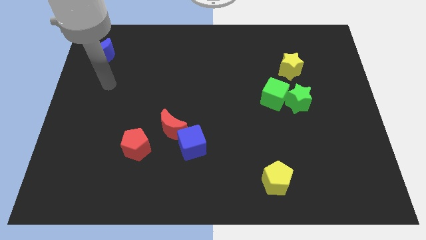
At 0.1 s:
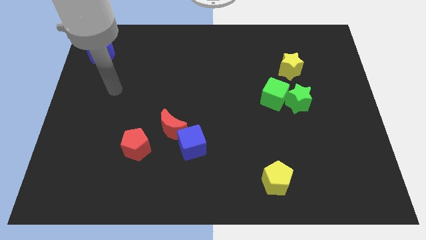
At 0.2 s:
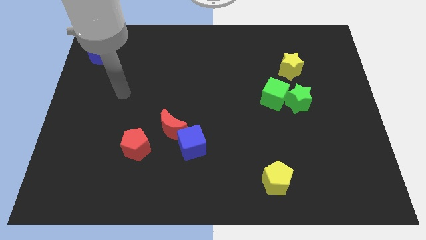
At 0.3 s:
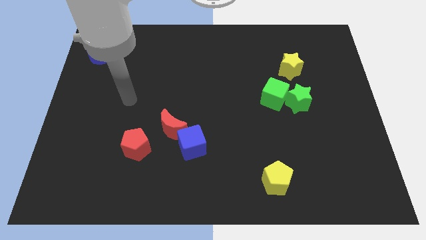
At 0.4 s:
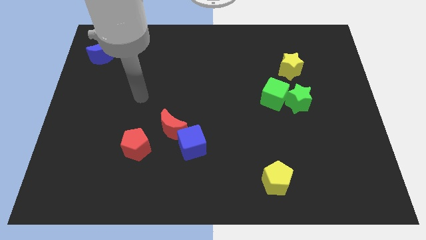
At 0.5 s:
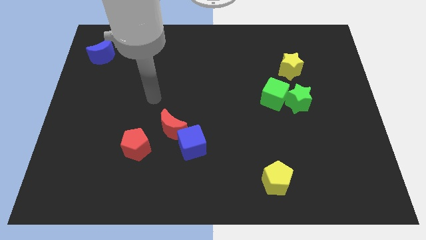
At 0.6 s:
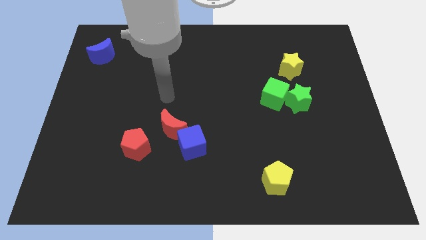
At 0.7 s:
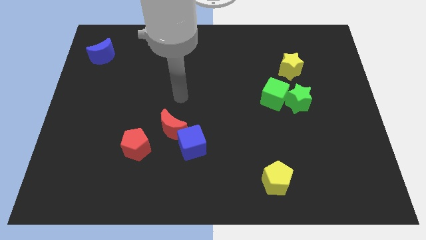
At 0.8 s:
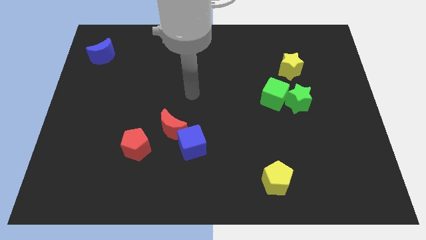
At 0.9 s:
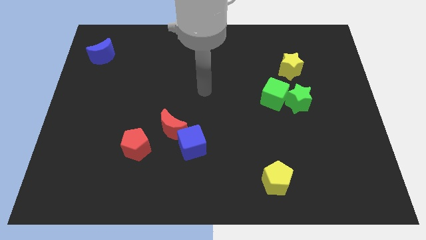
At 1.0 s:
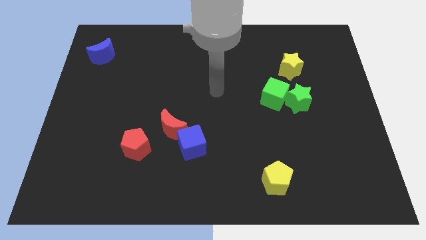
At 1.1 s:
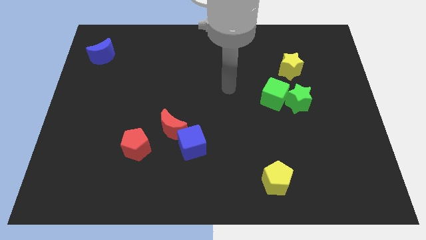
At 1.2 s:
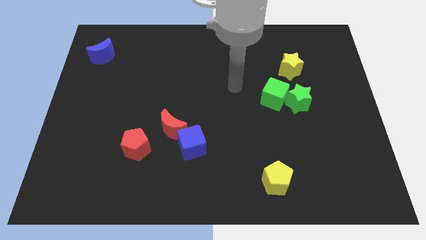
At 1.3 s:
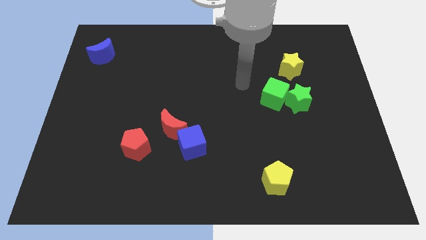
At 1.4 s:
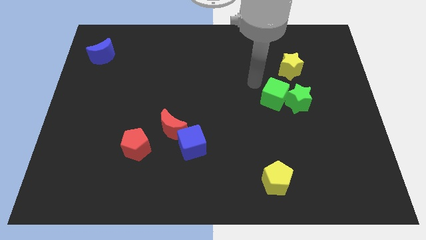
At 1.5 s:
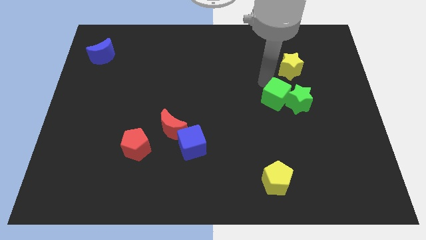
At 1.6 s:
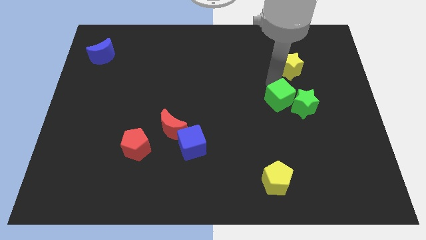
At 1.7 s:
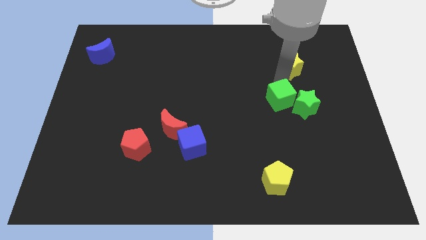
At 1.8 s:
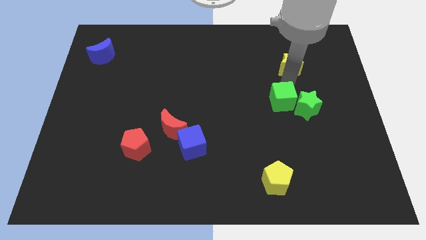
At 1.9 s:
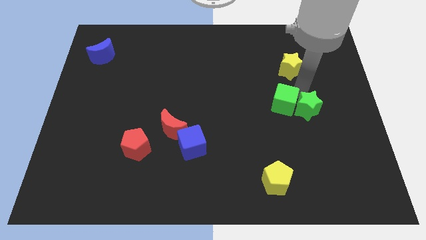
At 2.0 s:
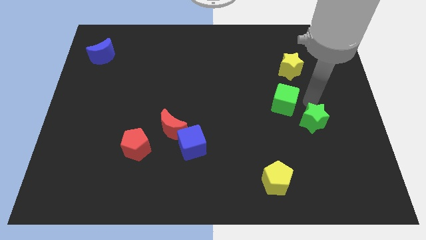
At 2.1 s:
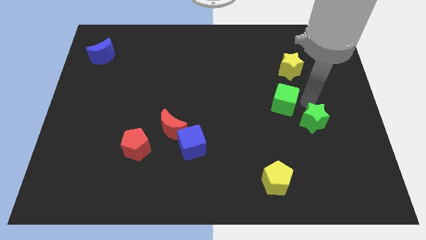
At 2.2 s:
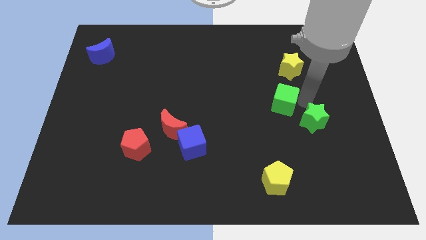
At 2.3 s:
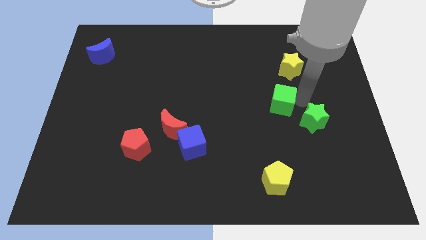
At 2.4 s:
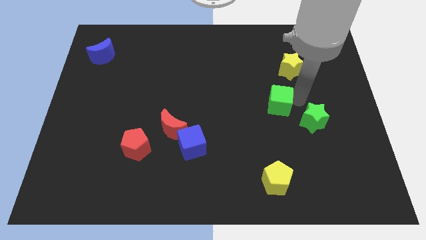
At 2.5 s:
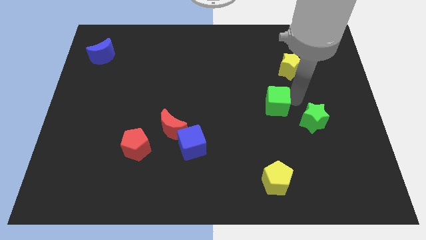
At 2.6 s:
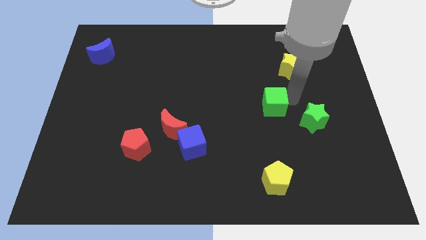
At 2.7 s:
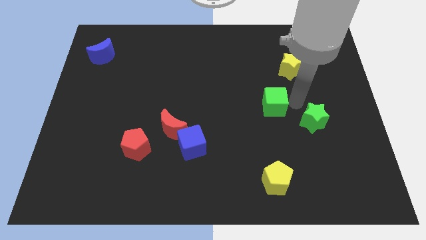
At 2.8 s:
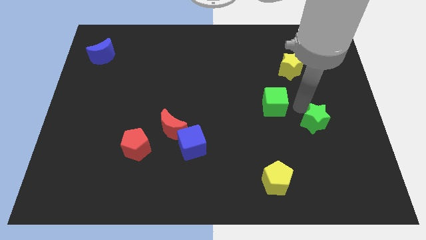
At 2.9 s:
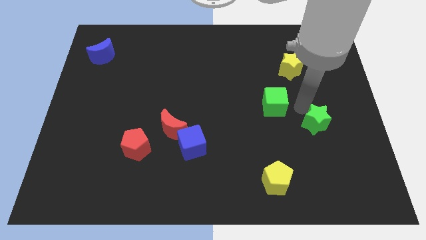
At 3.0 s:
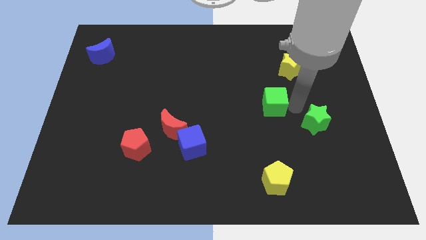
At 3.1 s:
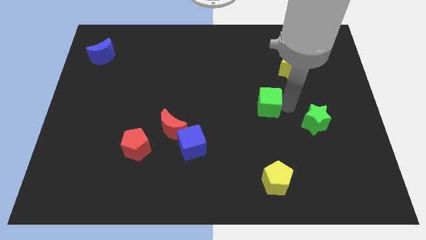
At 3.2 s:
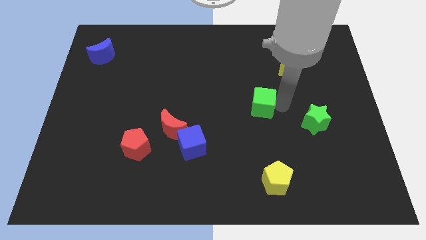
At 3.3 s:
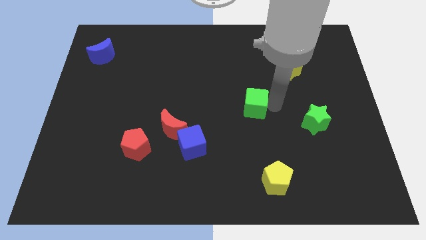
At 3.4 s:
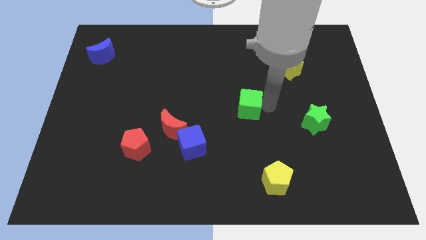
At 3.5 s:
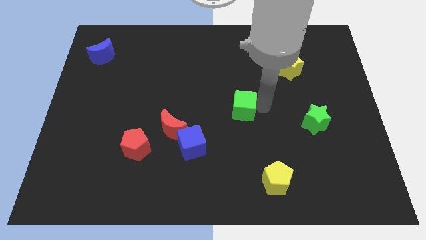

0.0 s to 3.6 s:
move the green cube slightly left

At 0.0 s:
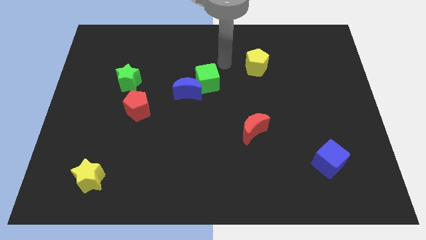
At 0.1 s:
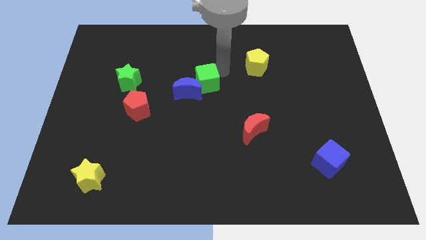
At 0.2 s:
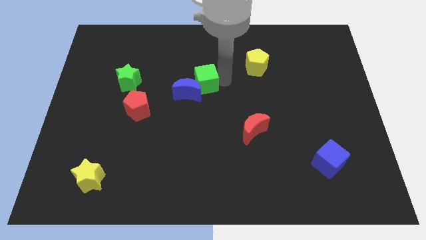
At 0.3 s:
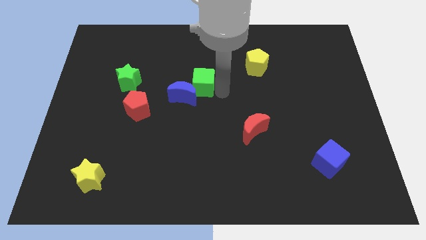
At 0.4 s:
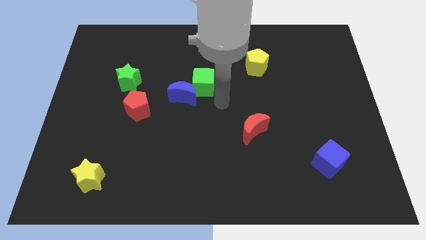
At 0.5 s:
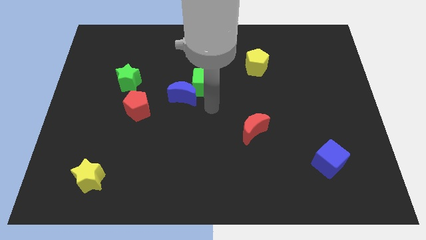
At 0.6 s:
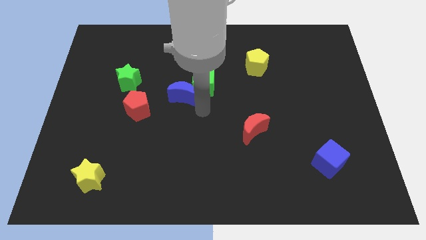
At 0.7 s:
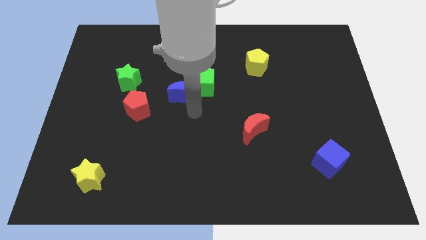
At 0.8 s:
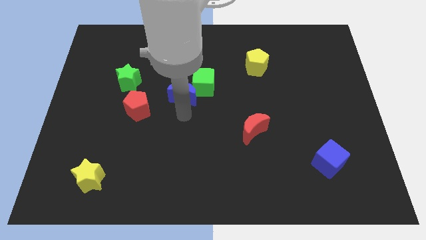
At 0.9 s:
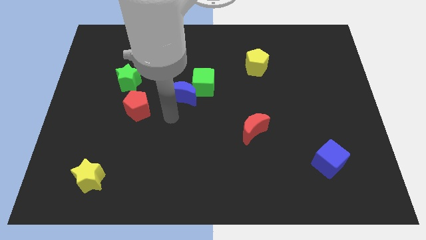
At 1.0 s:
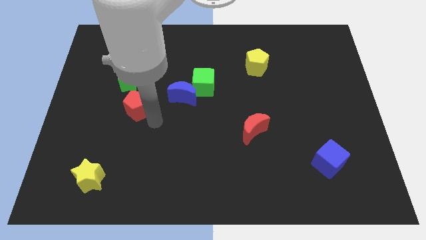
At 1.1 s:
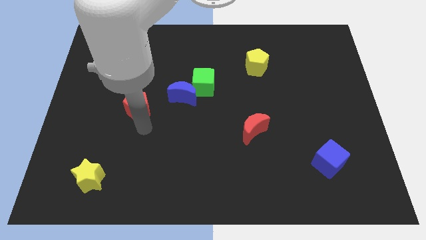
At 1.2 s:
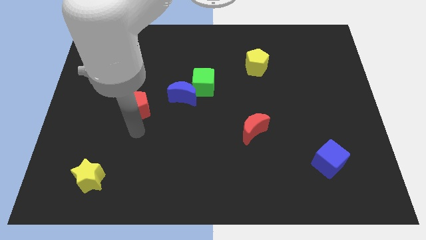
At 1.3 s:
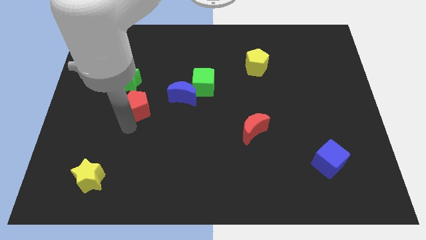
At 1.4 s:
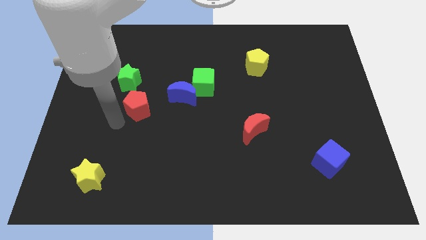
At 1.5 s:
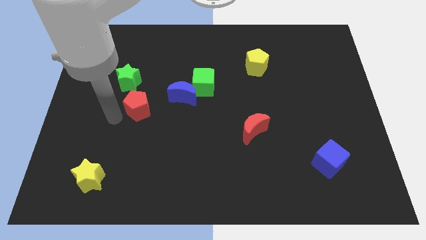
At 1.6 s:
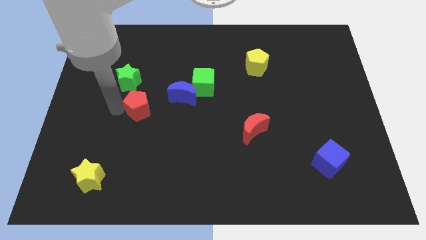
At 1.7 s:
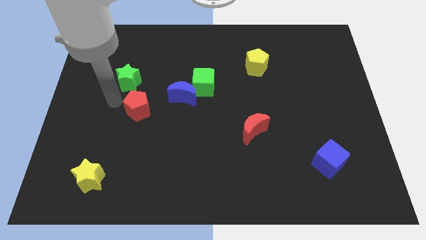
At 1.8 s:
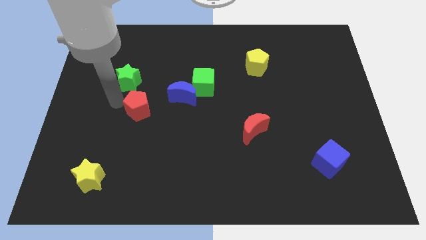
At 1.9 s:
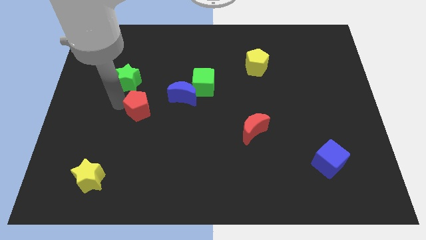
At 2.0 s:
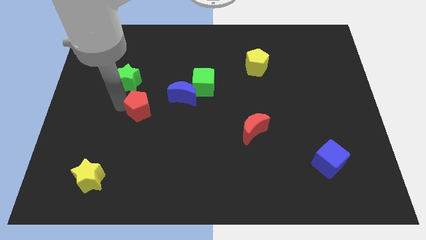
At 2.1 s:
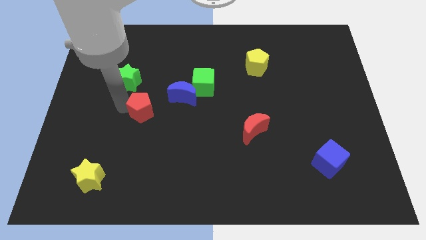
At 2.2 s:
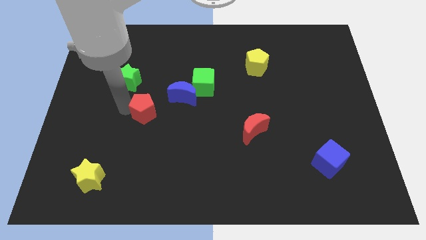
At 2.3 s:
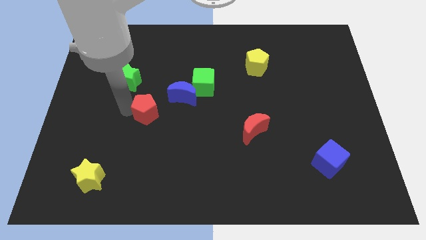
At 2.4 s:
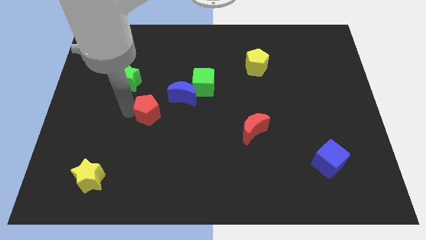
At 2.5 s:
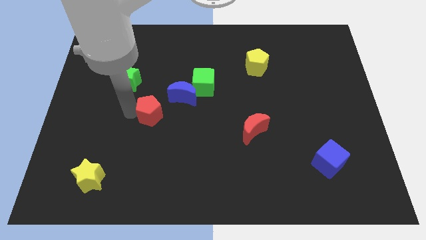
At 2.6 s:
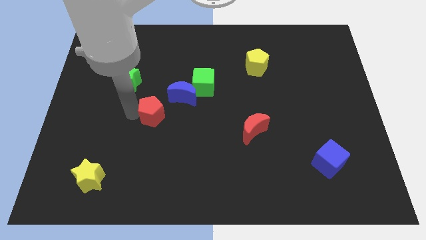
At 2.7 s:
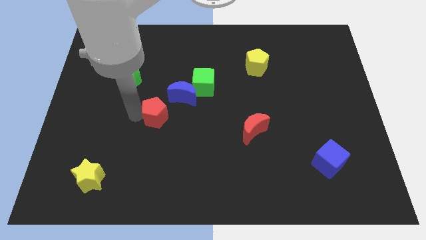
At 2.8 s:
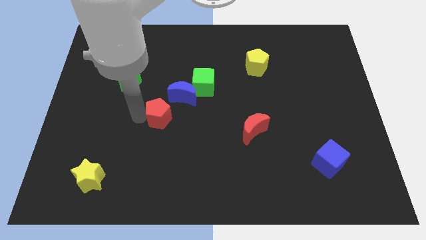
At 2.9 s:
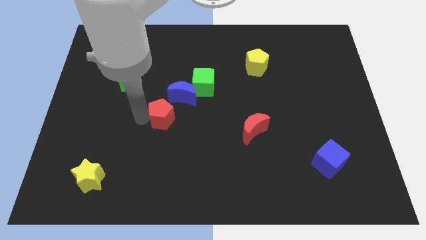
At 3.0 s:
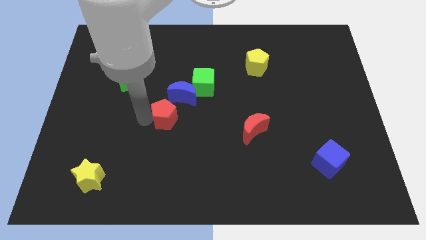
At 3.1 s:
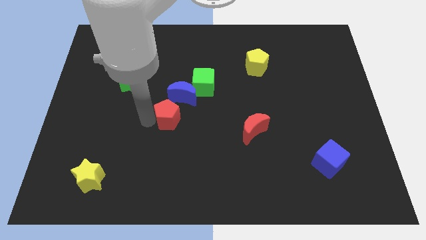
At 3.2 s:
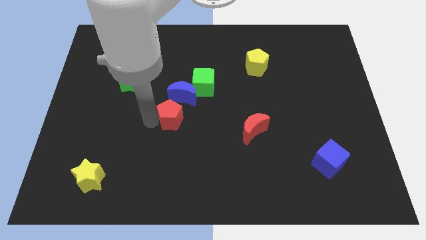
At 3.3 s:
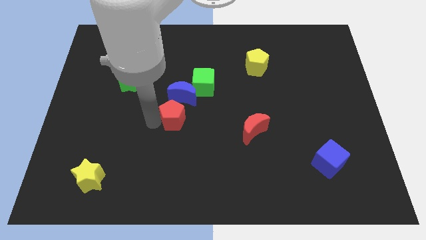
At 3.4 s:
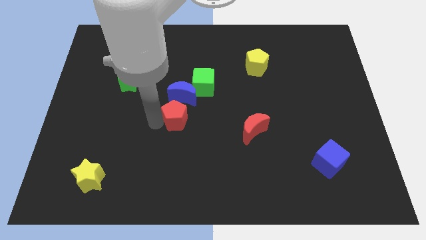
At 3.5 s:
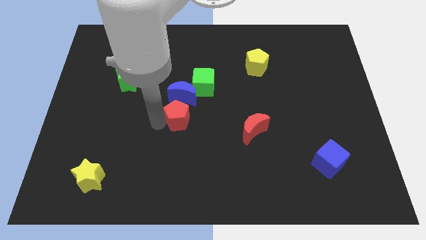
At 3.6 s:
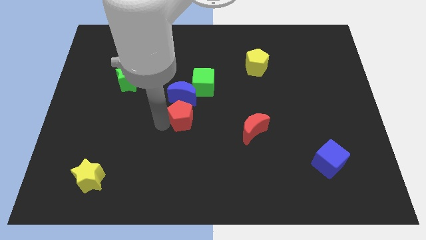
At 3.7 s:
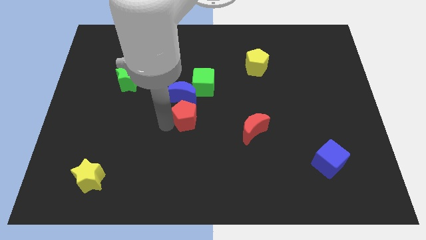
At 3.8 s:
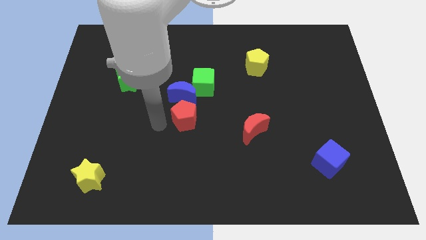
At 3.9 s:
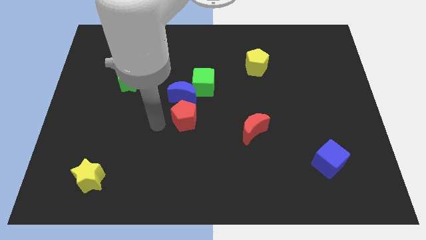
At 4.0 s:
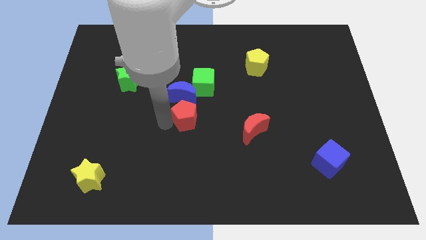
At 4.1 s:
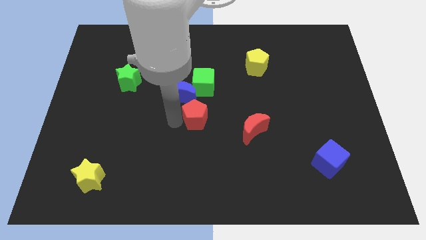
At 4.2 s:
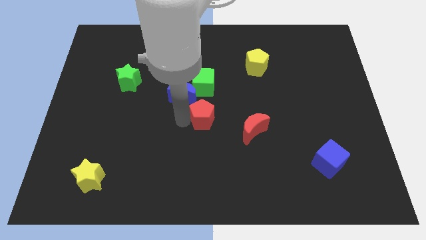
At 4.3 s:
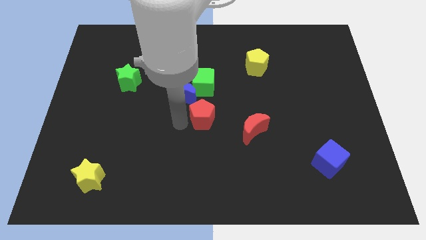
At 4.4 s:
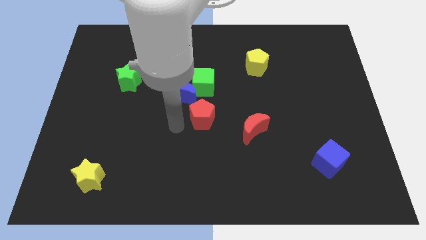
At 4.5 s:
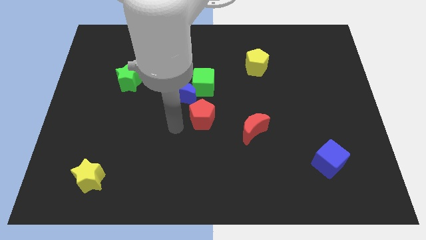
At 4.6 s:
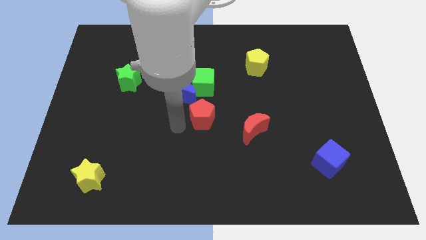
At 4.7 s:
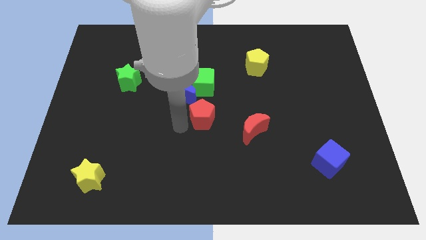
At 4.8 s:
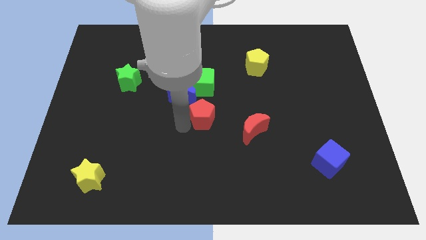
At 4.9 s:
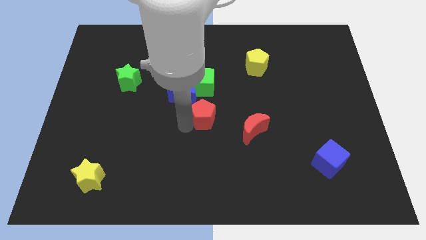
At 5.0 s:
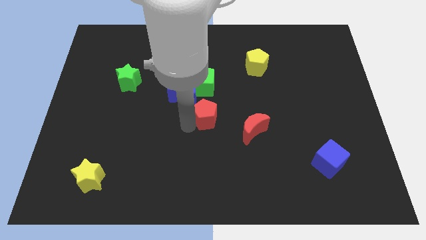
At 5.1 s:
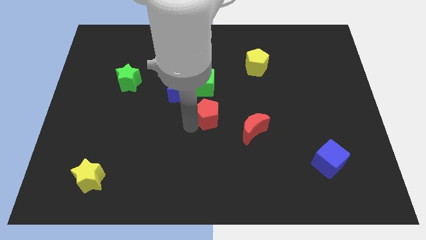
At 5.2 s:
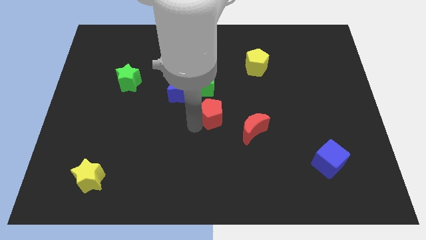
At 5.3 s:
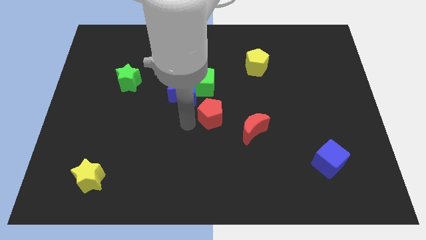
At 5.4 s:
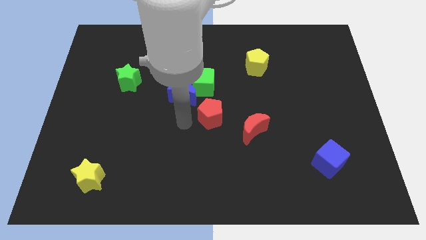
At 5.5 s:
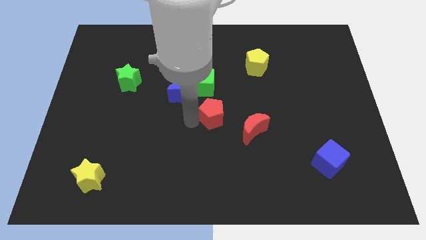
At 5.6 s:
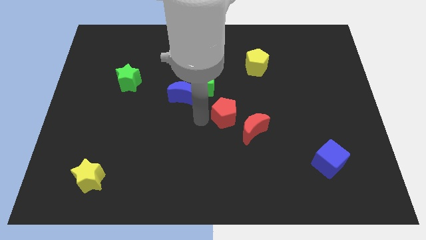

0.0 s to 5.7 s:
move the red pentagon to the right
